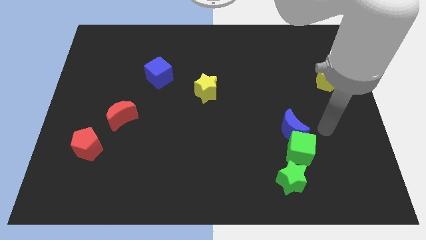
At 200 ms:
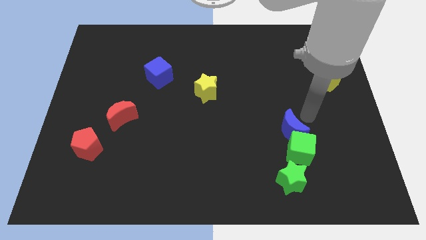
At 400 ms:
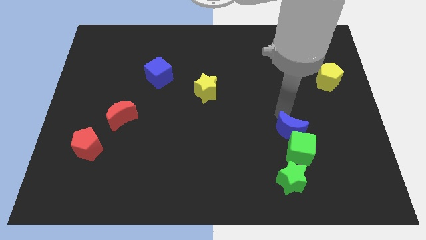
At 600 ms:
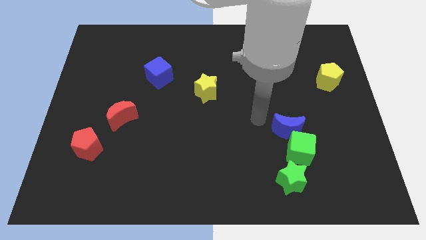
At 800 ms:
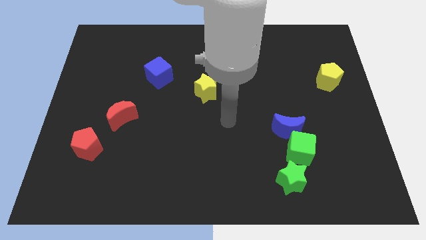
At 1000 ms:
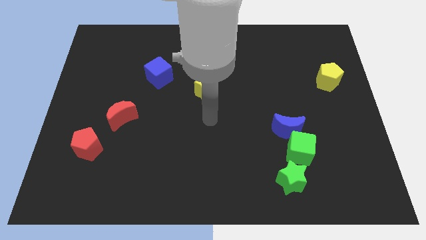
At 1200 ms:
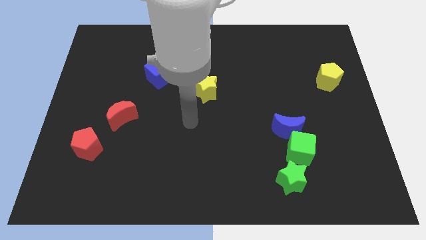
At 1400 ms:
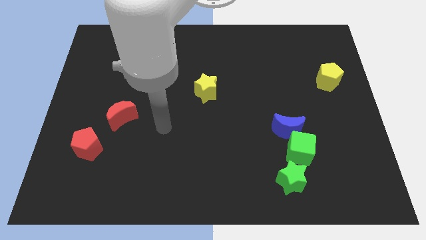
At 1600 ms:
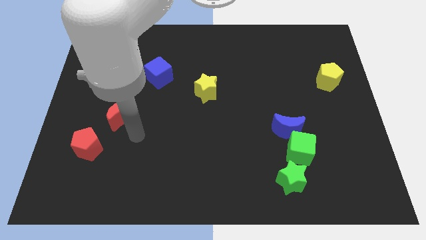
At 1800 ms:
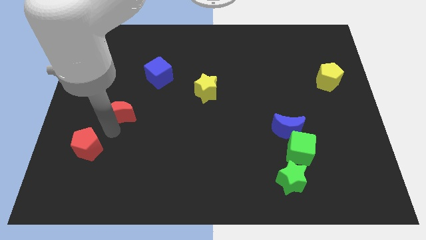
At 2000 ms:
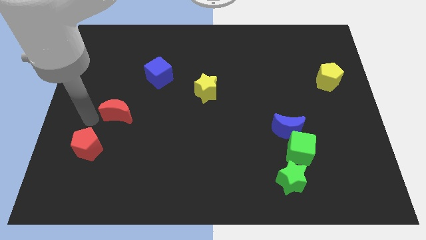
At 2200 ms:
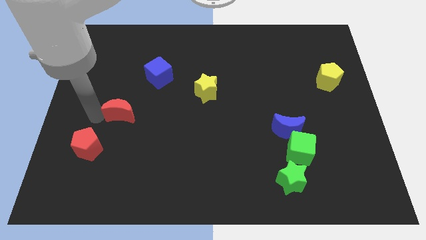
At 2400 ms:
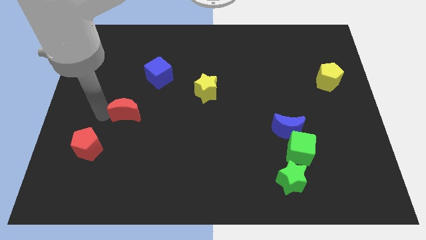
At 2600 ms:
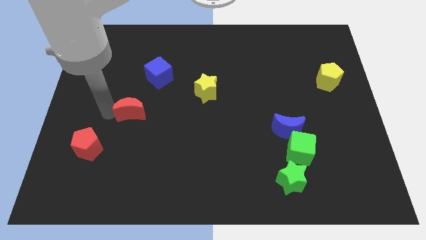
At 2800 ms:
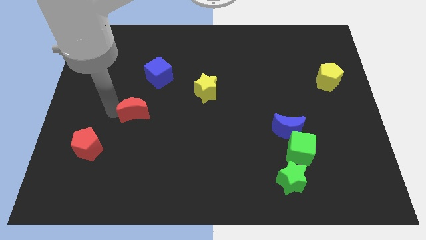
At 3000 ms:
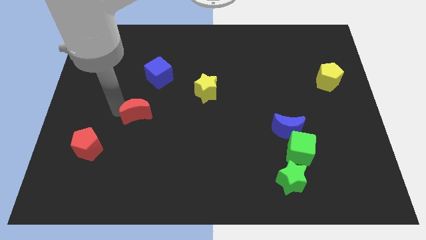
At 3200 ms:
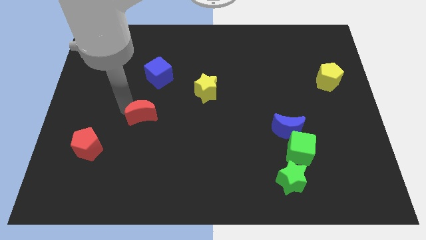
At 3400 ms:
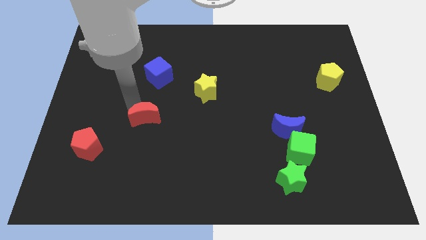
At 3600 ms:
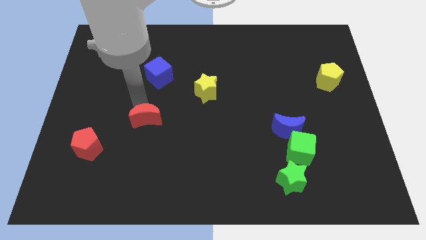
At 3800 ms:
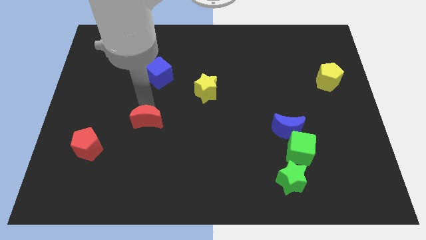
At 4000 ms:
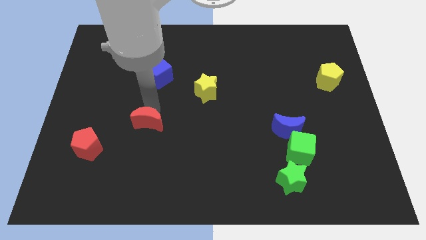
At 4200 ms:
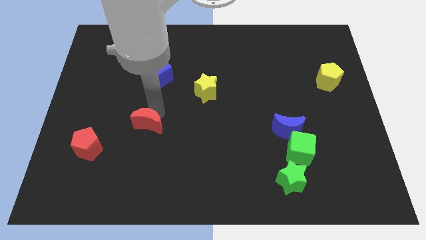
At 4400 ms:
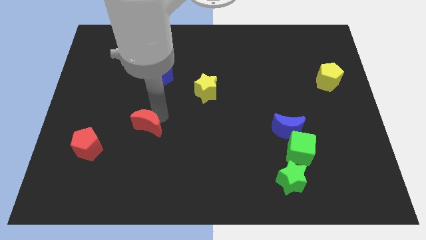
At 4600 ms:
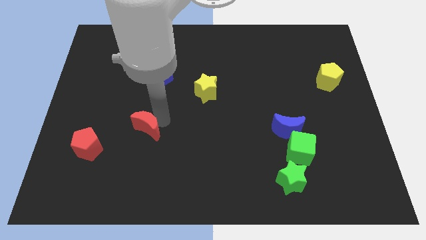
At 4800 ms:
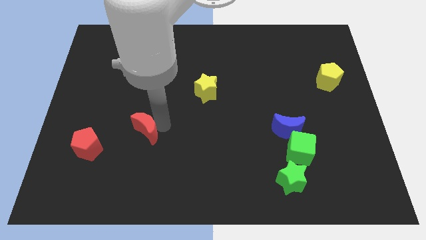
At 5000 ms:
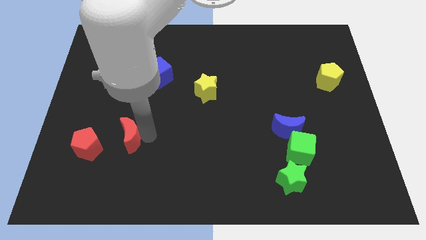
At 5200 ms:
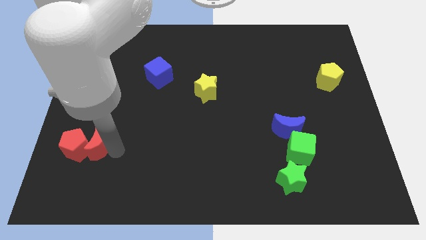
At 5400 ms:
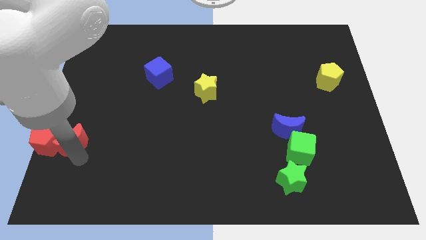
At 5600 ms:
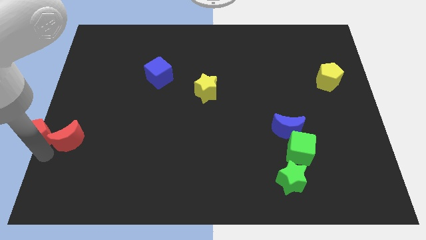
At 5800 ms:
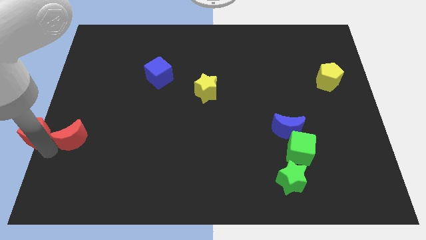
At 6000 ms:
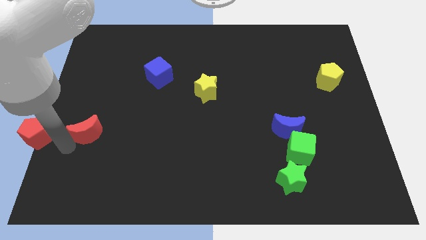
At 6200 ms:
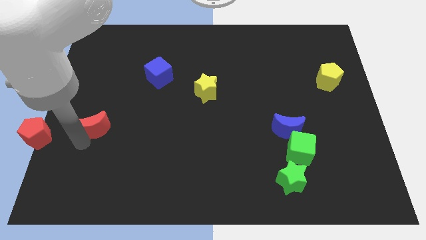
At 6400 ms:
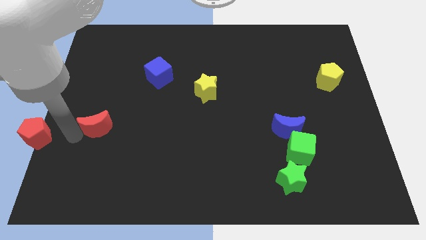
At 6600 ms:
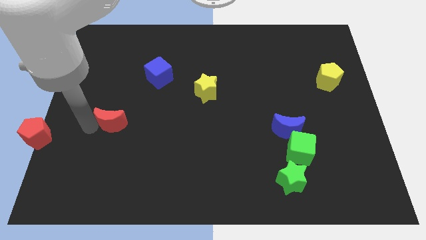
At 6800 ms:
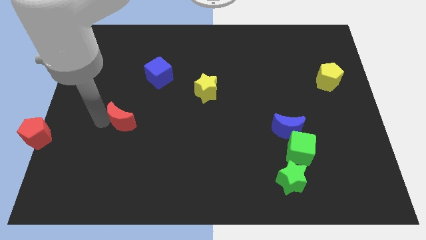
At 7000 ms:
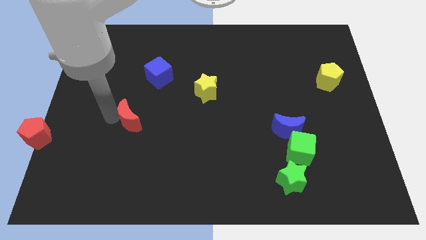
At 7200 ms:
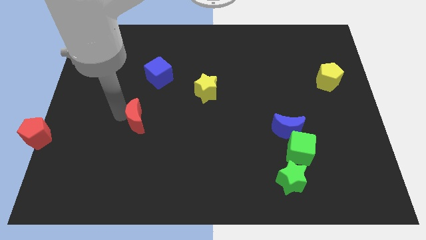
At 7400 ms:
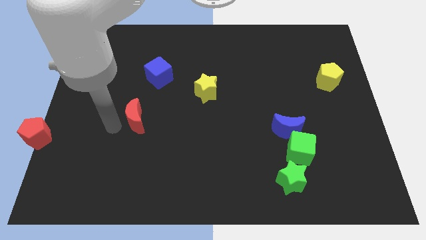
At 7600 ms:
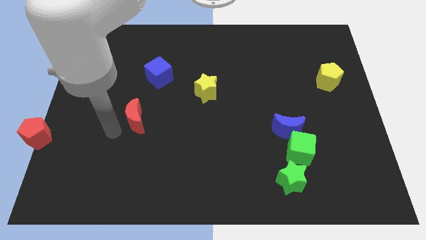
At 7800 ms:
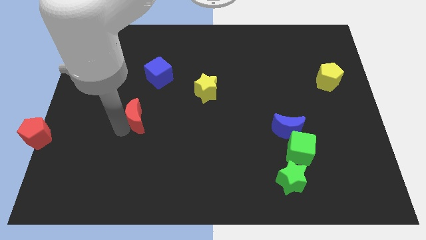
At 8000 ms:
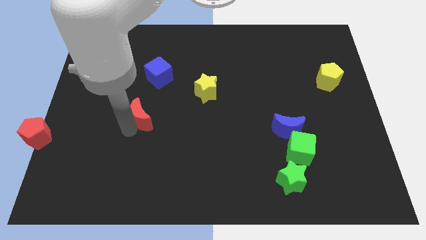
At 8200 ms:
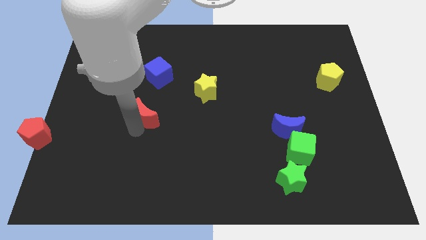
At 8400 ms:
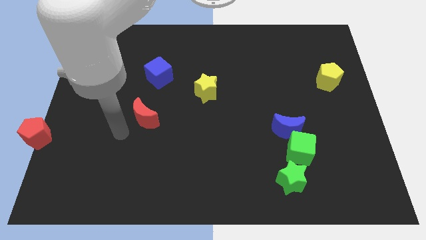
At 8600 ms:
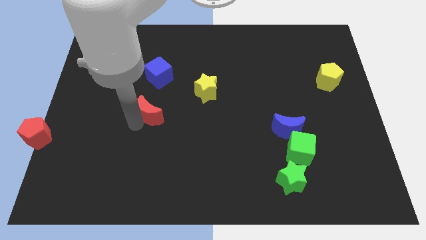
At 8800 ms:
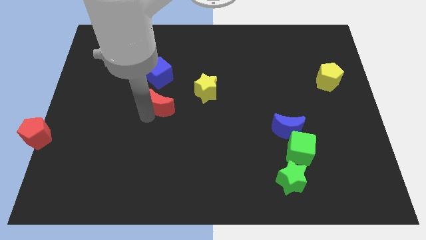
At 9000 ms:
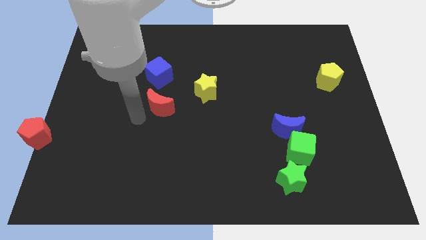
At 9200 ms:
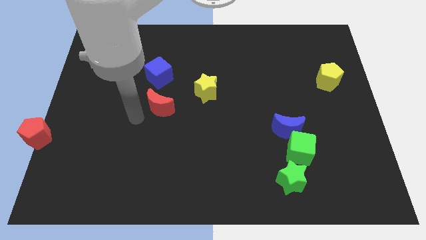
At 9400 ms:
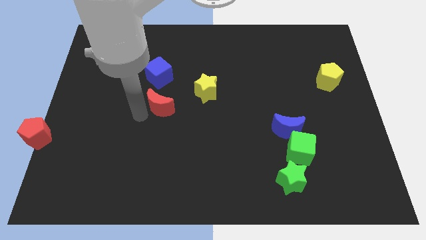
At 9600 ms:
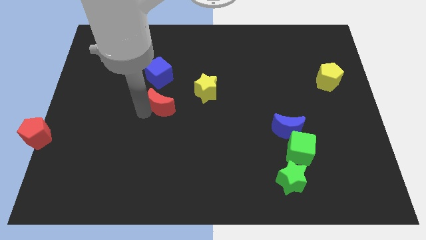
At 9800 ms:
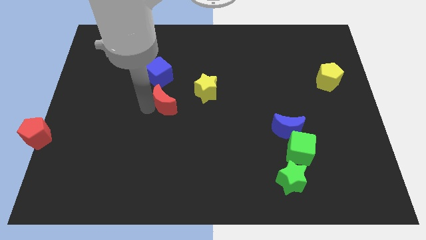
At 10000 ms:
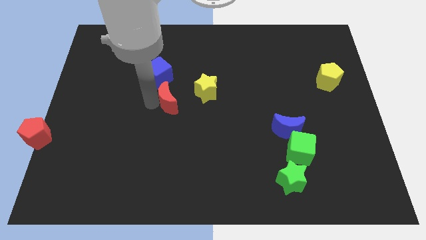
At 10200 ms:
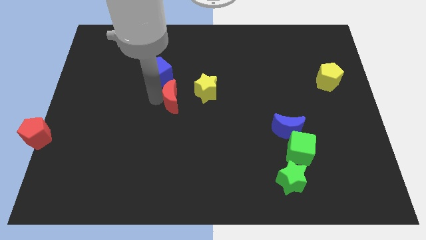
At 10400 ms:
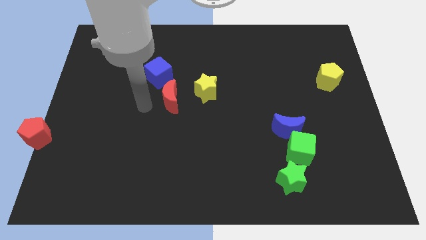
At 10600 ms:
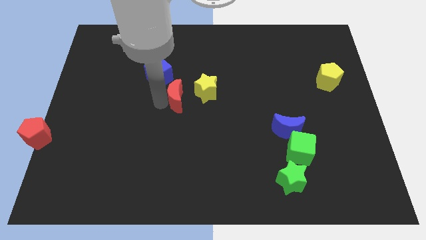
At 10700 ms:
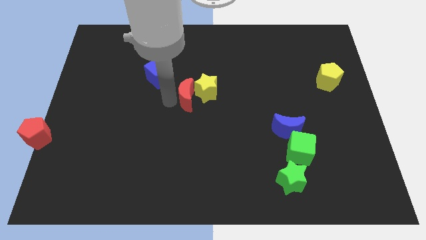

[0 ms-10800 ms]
put the red moon next to the yellow star

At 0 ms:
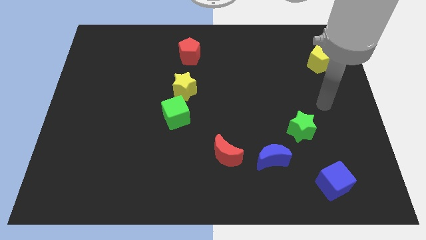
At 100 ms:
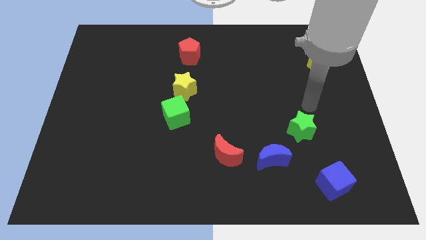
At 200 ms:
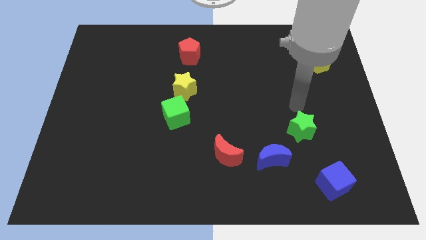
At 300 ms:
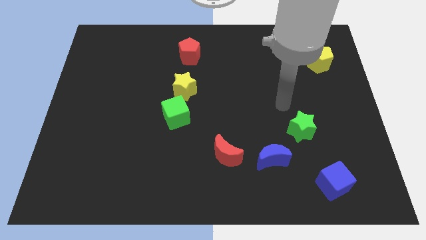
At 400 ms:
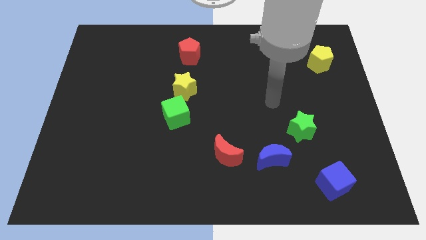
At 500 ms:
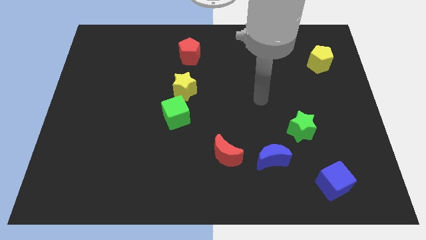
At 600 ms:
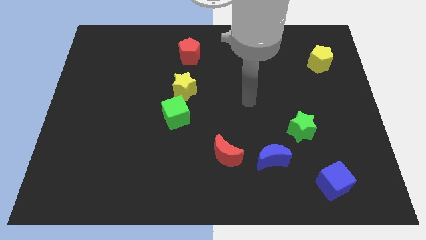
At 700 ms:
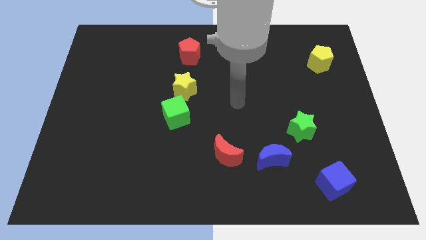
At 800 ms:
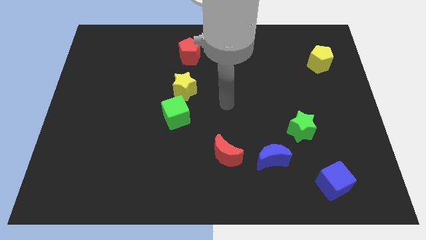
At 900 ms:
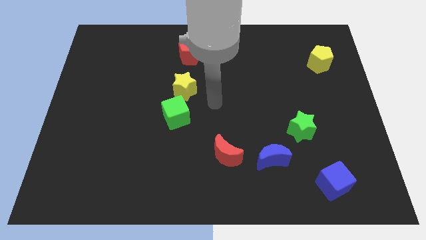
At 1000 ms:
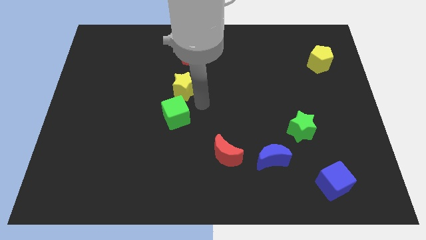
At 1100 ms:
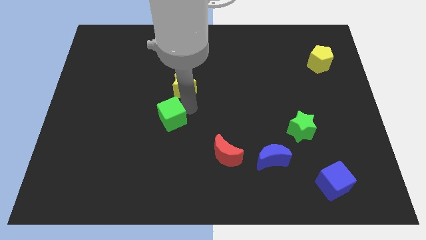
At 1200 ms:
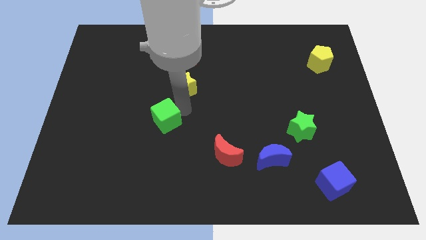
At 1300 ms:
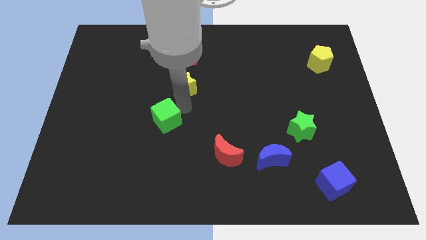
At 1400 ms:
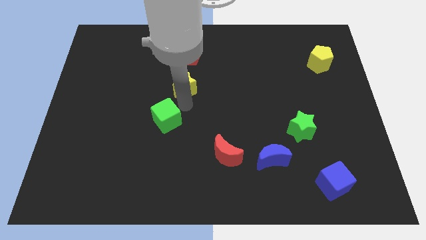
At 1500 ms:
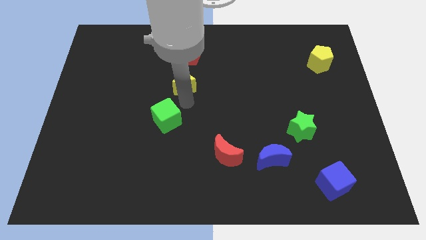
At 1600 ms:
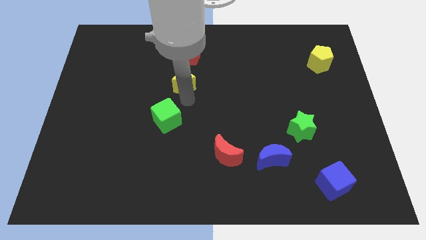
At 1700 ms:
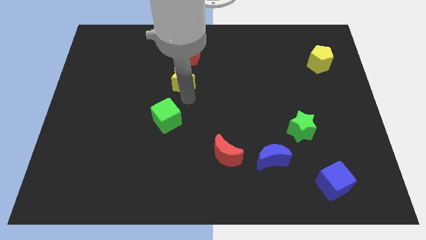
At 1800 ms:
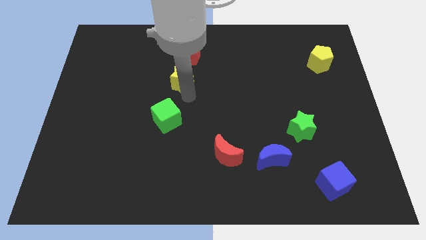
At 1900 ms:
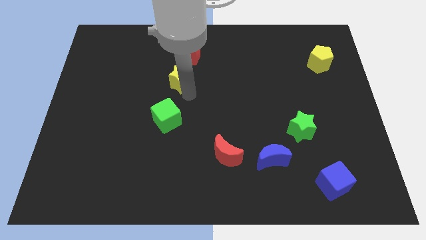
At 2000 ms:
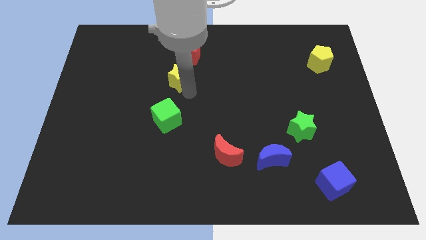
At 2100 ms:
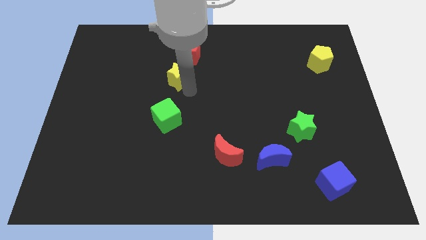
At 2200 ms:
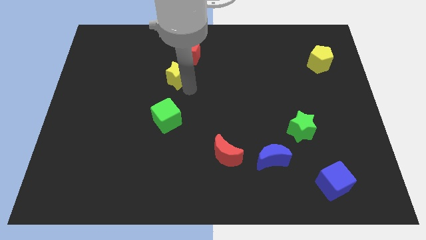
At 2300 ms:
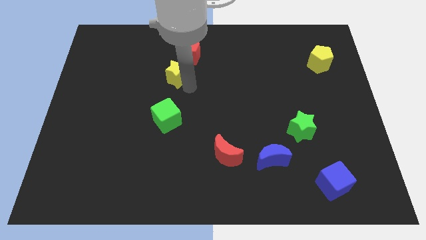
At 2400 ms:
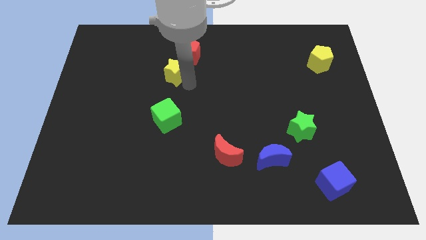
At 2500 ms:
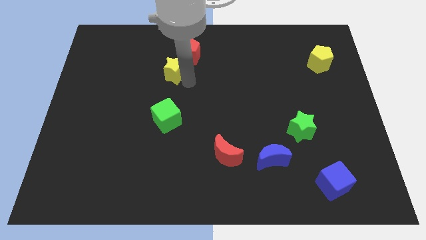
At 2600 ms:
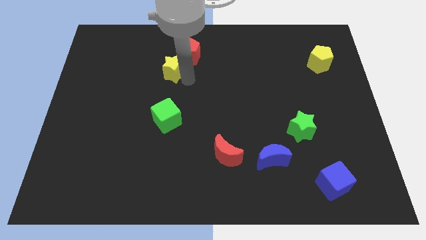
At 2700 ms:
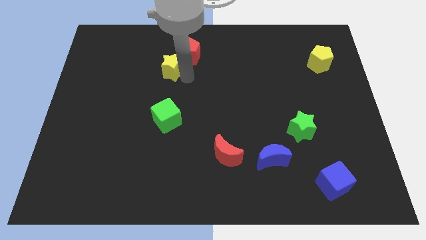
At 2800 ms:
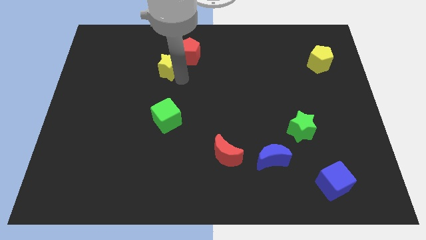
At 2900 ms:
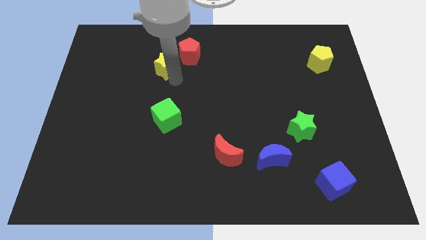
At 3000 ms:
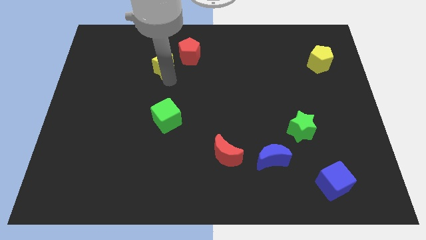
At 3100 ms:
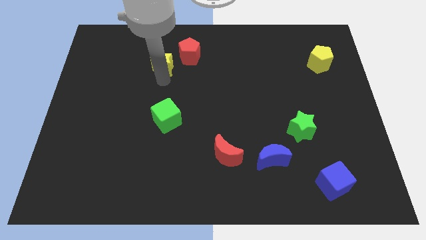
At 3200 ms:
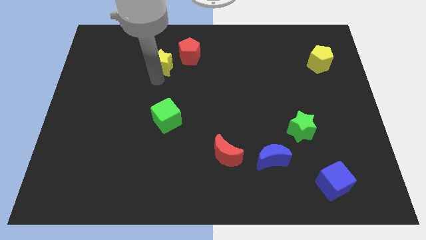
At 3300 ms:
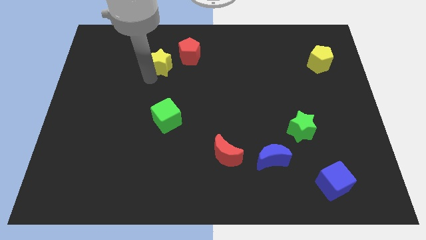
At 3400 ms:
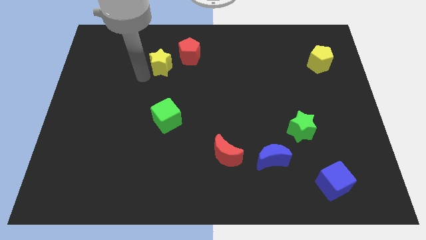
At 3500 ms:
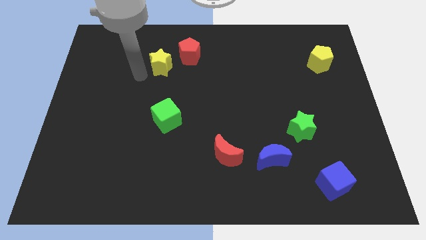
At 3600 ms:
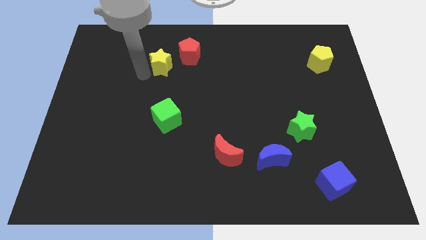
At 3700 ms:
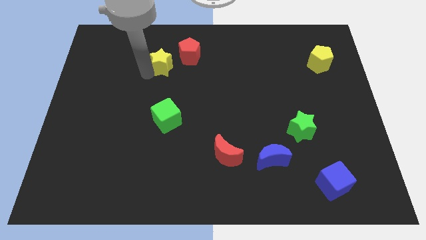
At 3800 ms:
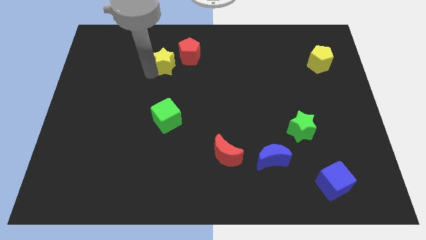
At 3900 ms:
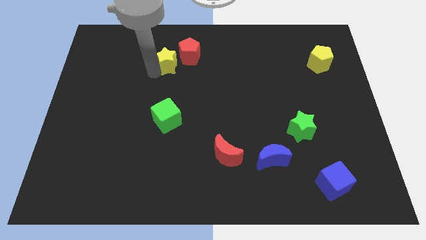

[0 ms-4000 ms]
put the yellow star to the red pentagon
